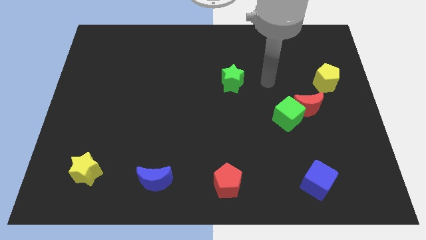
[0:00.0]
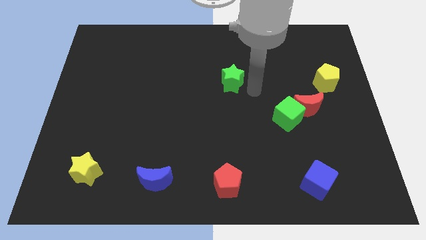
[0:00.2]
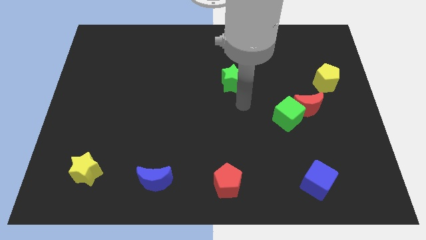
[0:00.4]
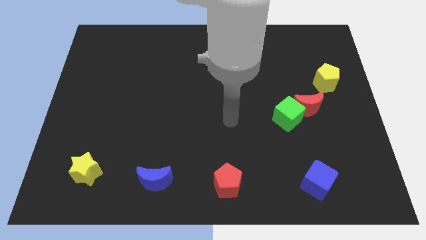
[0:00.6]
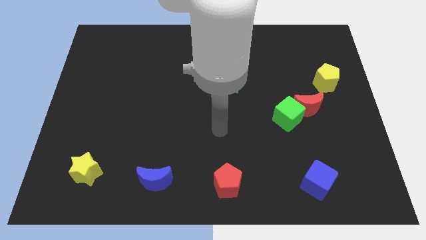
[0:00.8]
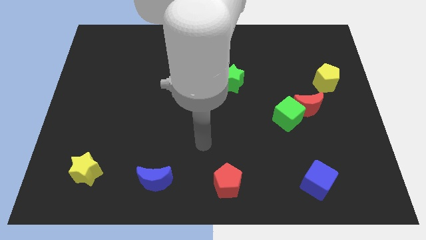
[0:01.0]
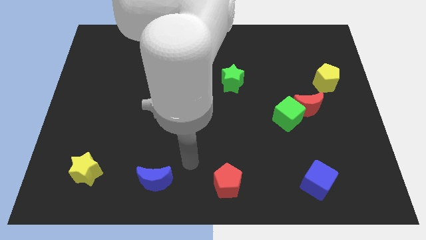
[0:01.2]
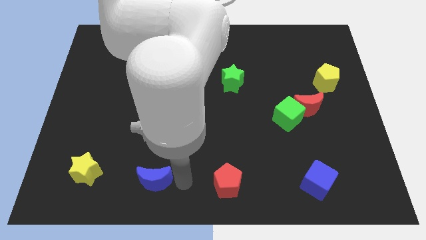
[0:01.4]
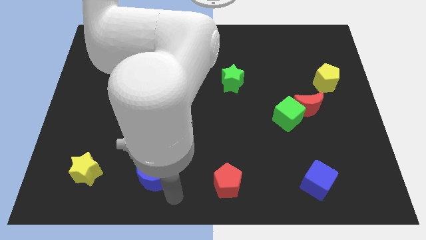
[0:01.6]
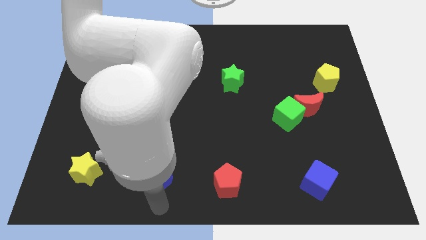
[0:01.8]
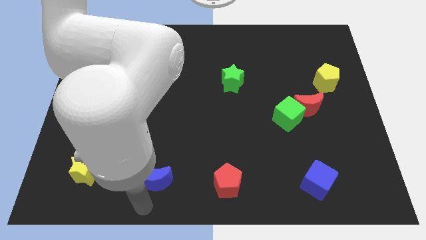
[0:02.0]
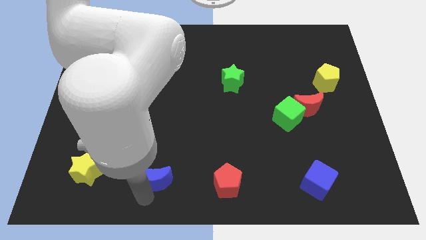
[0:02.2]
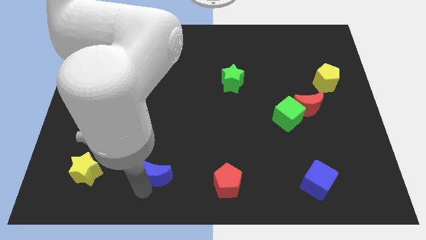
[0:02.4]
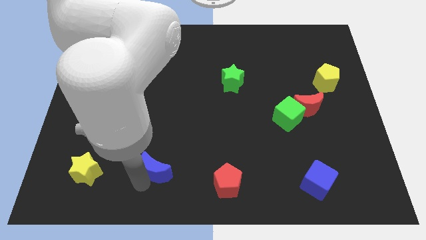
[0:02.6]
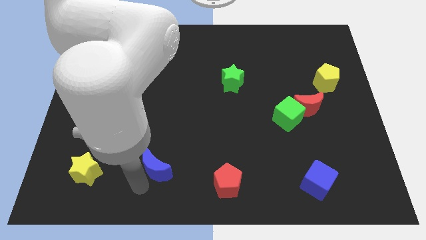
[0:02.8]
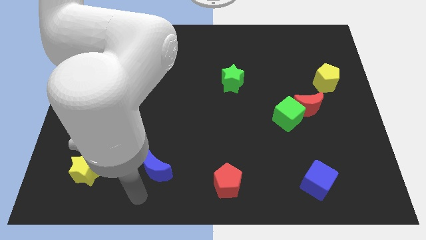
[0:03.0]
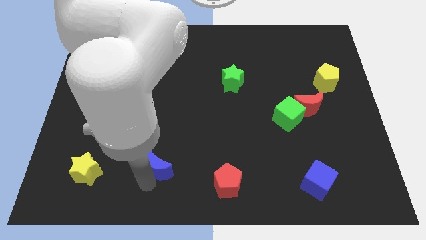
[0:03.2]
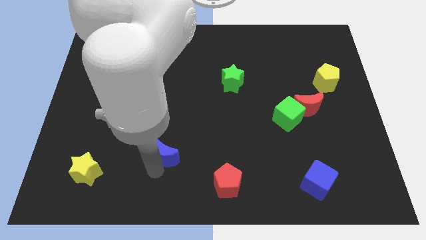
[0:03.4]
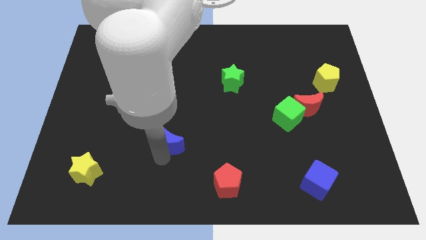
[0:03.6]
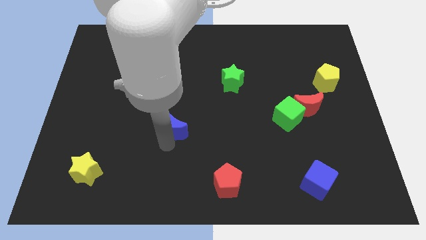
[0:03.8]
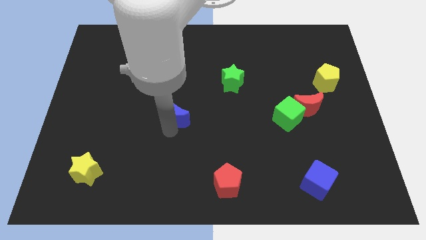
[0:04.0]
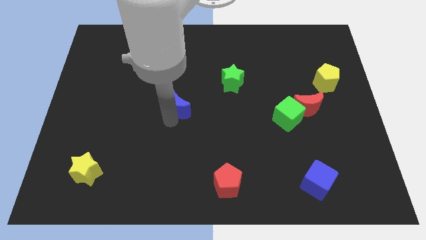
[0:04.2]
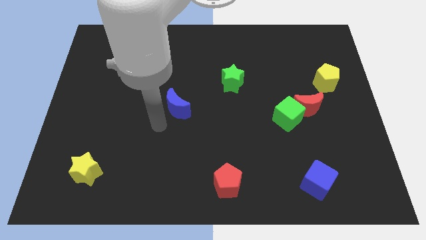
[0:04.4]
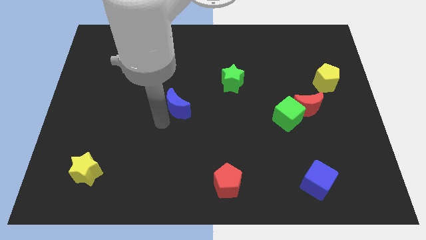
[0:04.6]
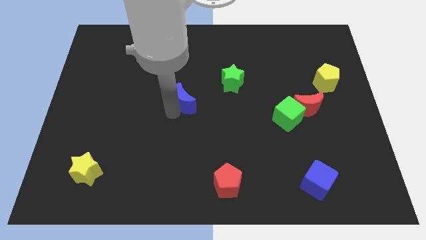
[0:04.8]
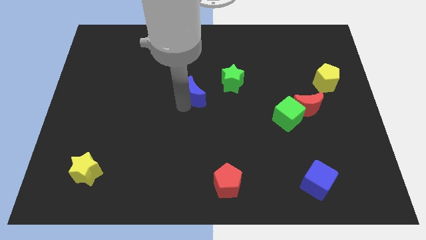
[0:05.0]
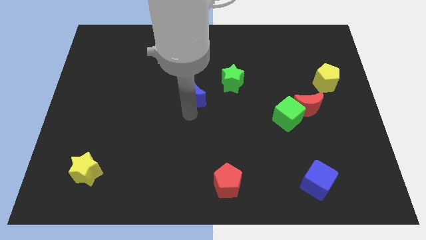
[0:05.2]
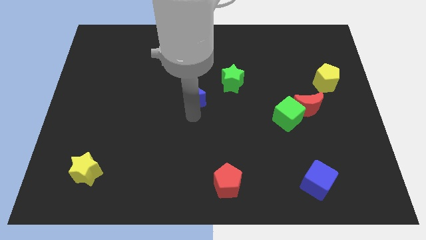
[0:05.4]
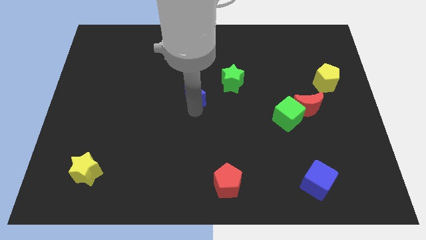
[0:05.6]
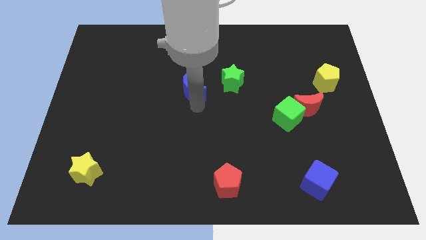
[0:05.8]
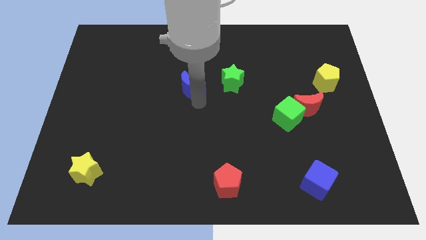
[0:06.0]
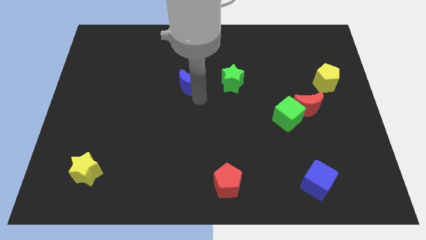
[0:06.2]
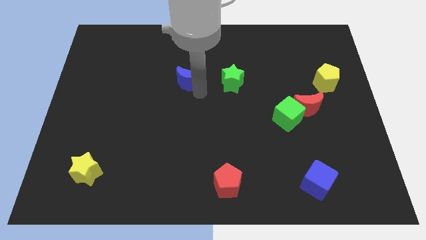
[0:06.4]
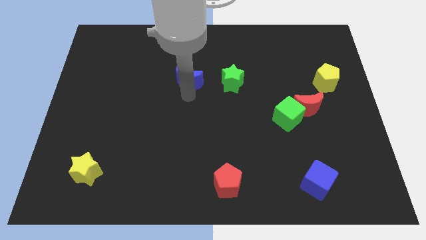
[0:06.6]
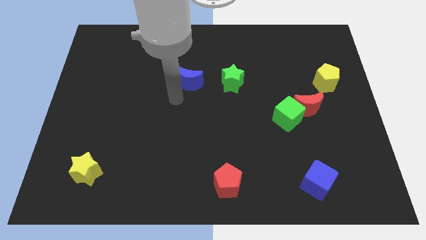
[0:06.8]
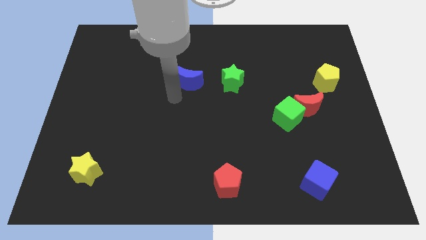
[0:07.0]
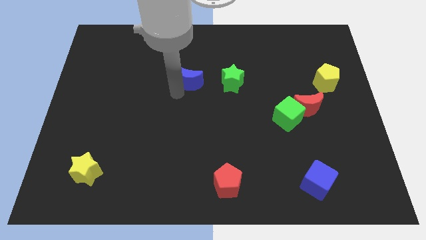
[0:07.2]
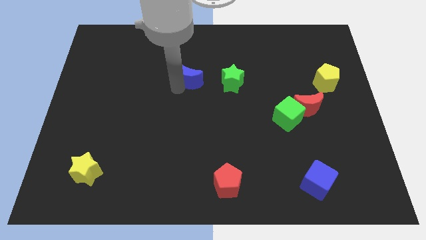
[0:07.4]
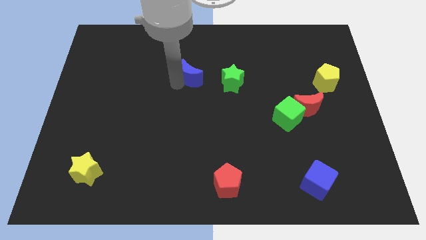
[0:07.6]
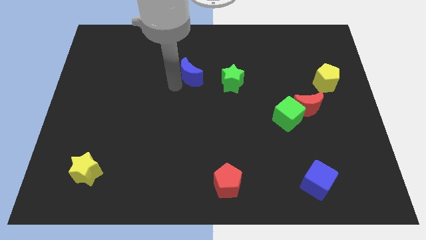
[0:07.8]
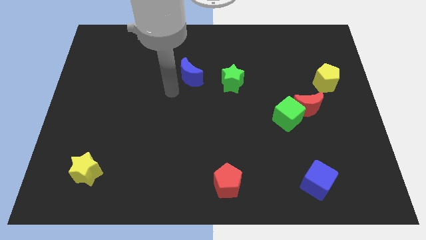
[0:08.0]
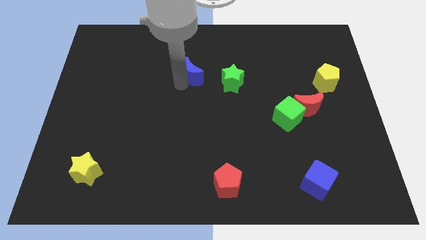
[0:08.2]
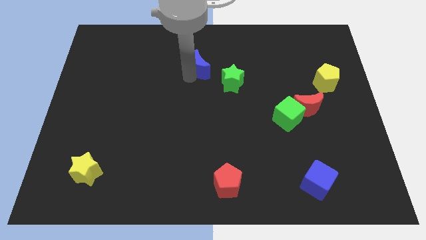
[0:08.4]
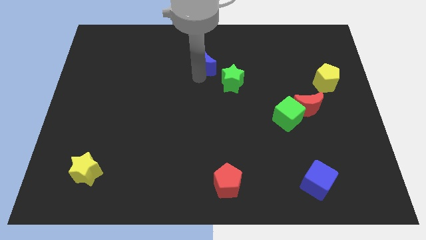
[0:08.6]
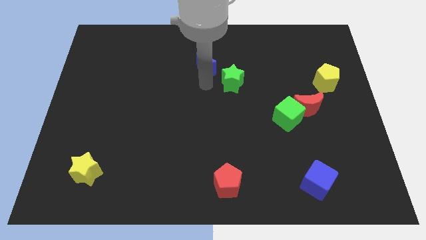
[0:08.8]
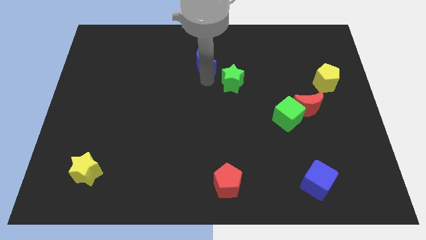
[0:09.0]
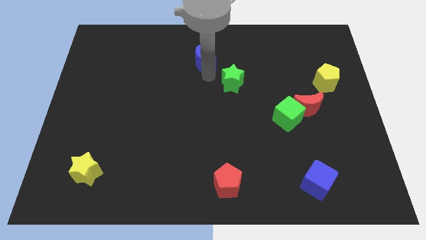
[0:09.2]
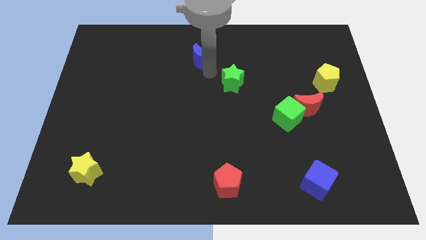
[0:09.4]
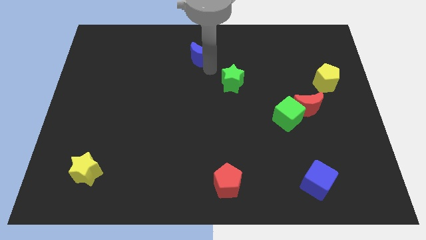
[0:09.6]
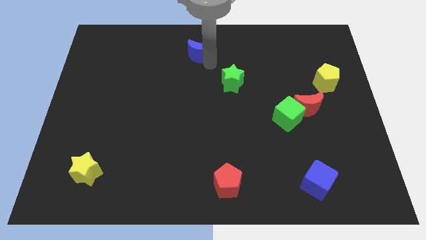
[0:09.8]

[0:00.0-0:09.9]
put the blue moon to the top

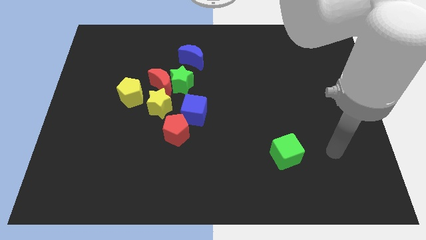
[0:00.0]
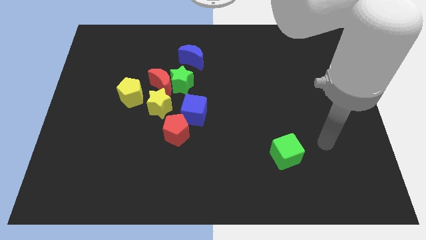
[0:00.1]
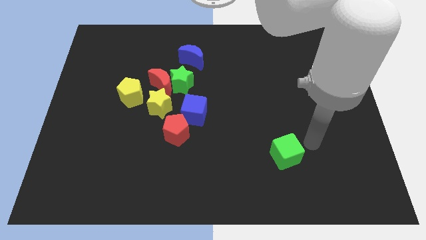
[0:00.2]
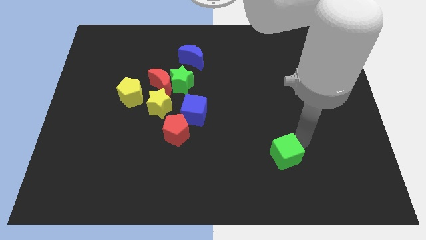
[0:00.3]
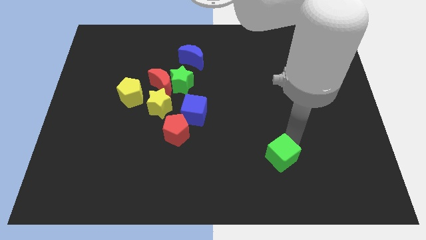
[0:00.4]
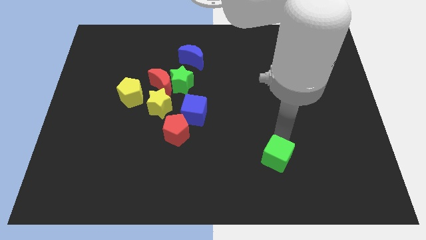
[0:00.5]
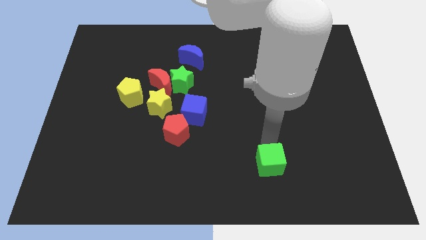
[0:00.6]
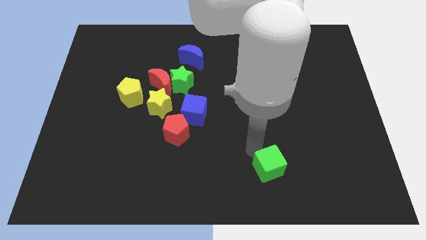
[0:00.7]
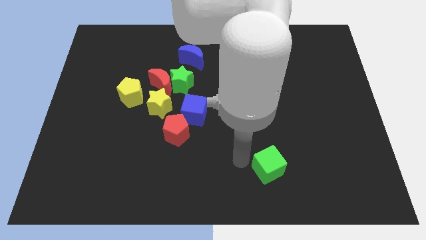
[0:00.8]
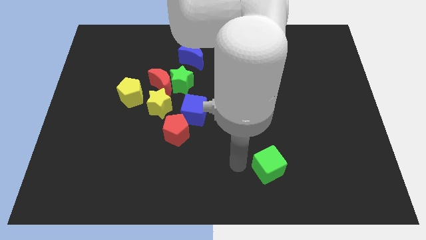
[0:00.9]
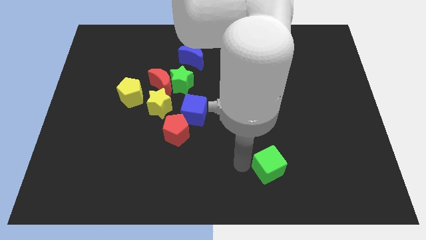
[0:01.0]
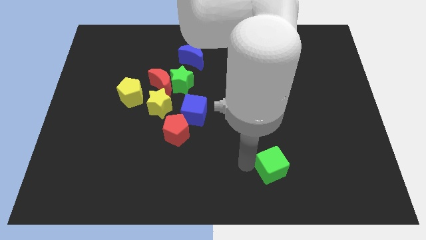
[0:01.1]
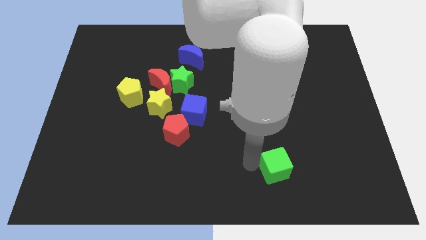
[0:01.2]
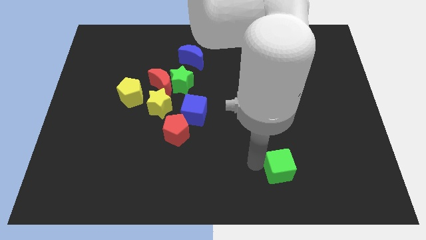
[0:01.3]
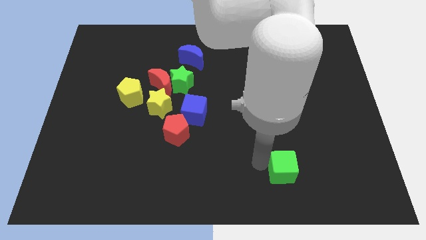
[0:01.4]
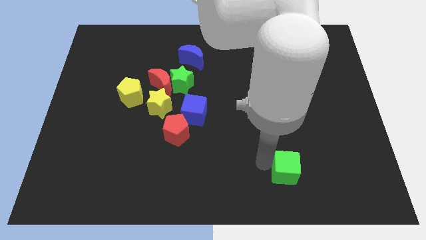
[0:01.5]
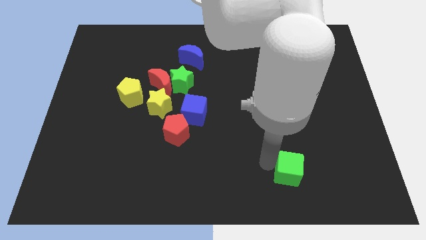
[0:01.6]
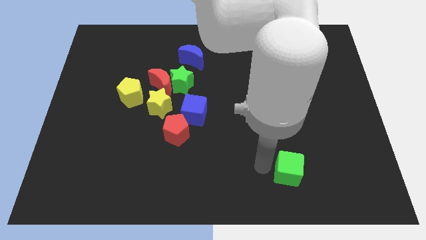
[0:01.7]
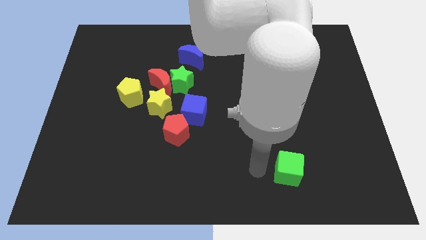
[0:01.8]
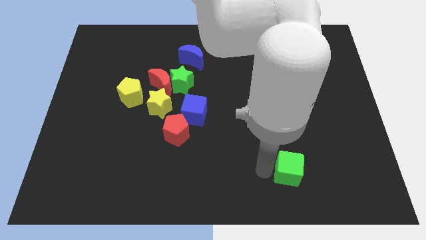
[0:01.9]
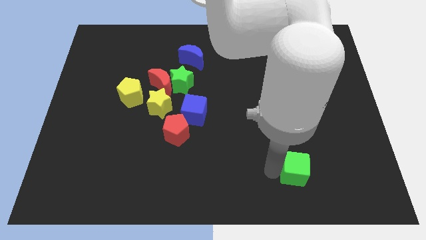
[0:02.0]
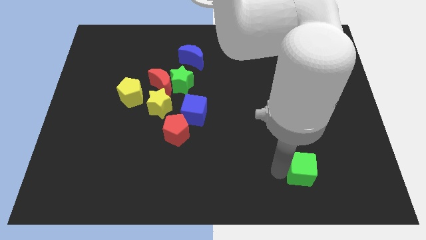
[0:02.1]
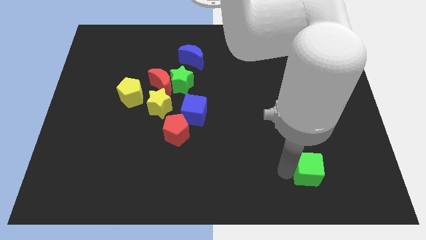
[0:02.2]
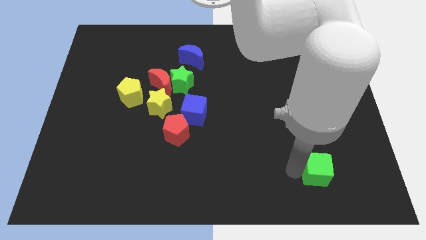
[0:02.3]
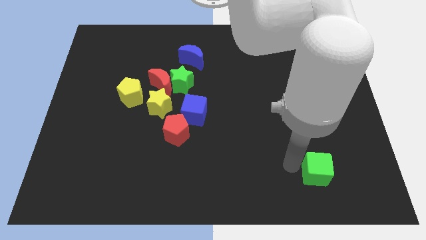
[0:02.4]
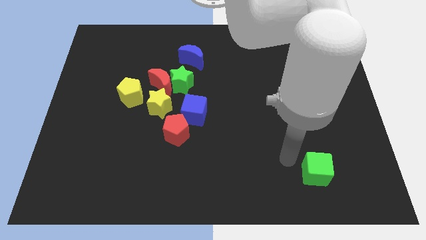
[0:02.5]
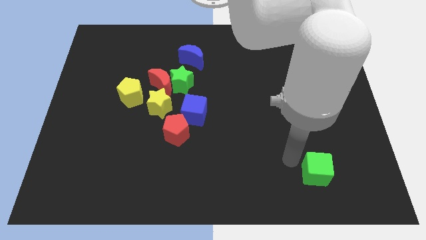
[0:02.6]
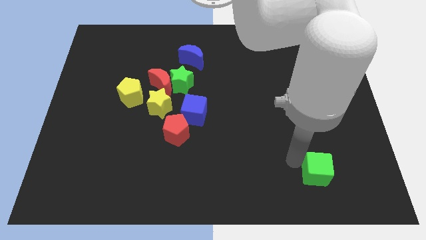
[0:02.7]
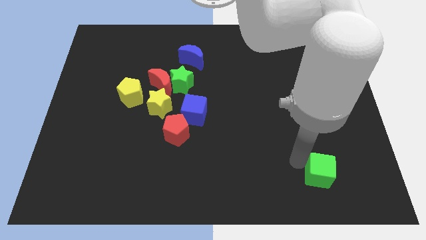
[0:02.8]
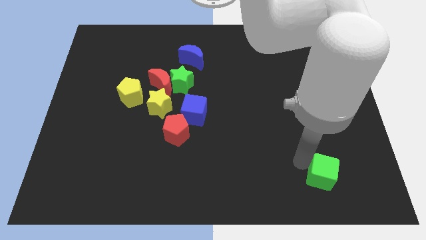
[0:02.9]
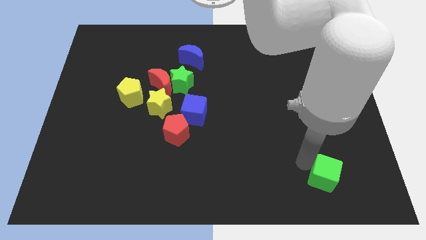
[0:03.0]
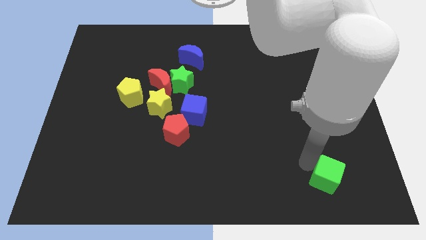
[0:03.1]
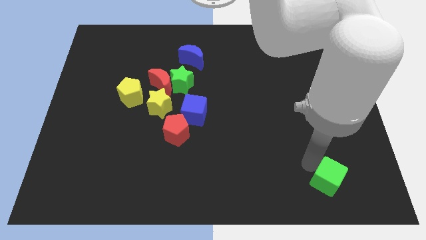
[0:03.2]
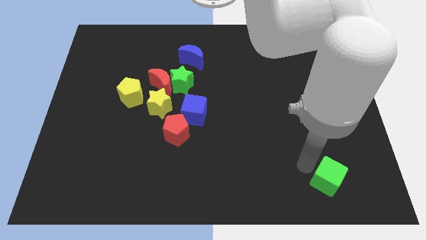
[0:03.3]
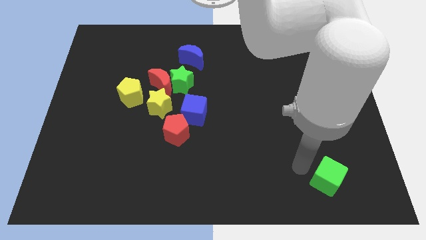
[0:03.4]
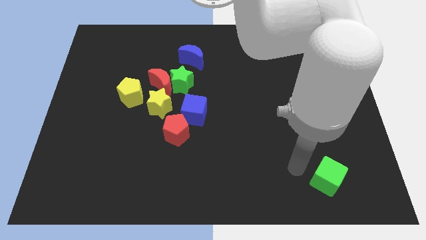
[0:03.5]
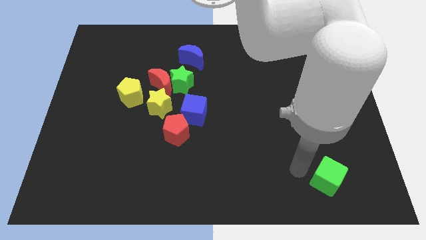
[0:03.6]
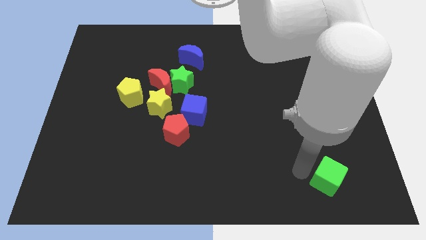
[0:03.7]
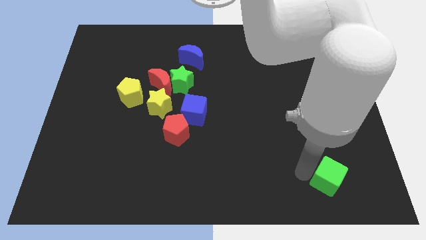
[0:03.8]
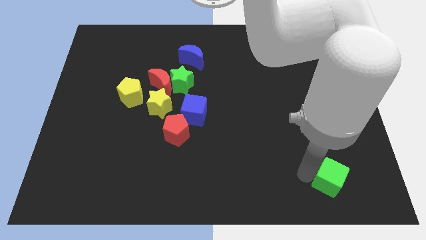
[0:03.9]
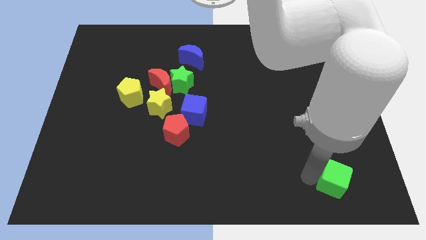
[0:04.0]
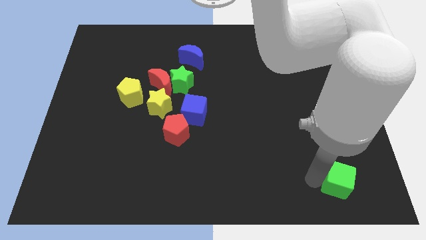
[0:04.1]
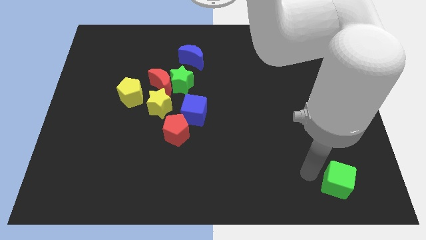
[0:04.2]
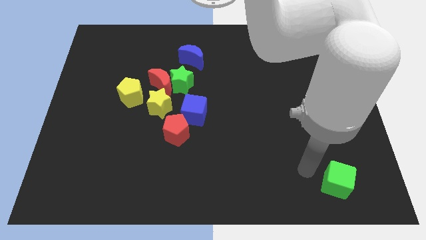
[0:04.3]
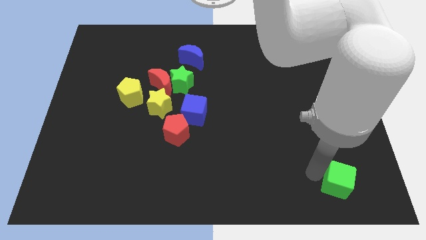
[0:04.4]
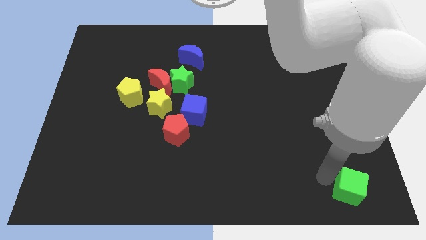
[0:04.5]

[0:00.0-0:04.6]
push the green cube to the bottom right
